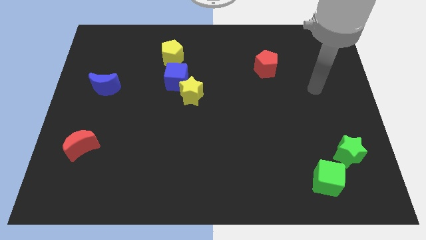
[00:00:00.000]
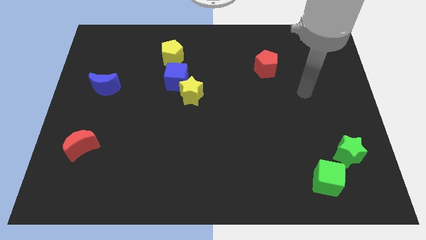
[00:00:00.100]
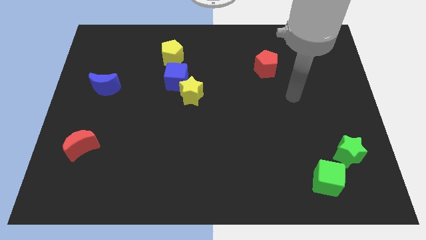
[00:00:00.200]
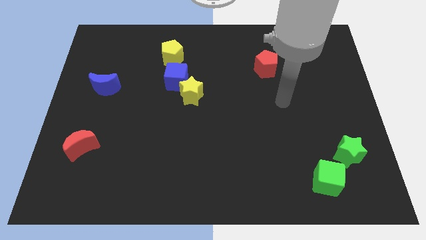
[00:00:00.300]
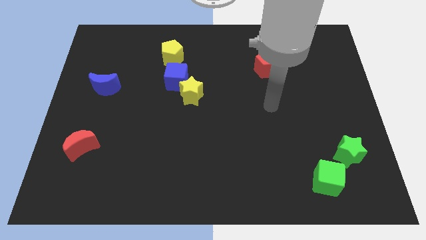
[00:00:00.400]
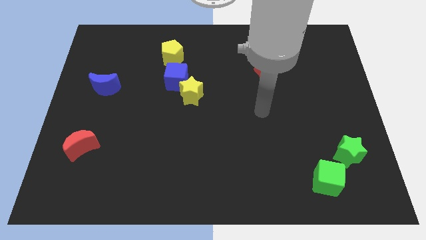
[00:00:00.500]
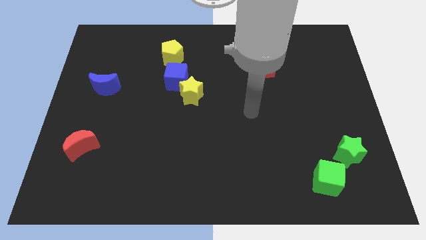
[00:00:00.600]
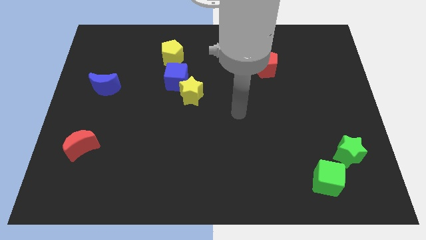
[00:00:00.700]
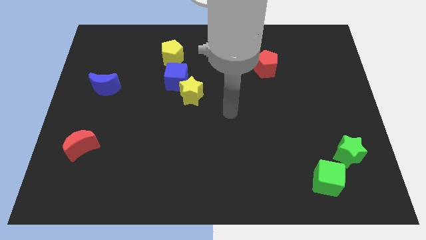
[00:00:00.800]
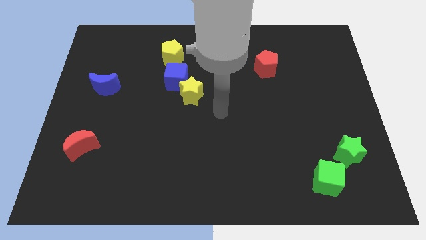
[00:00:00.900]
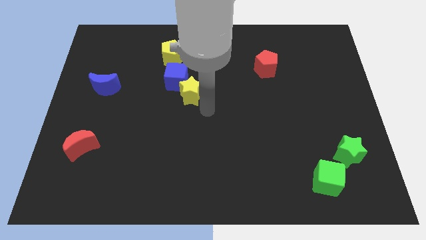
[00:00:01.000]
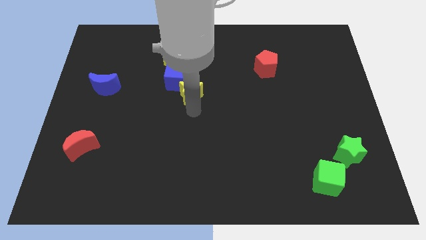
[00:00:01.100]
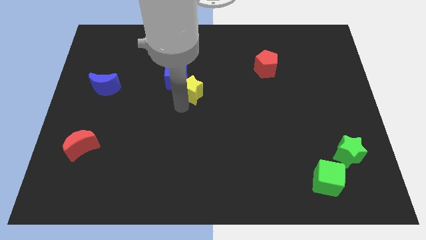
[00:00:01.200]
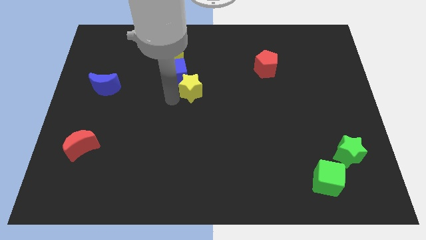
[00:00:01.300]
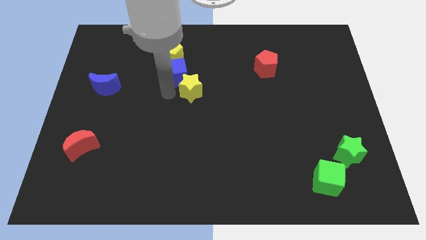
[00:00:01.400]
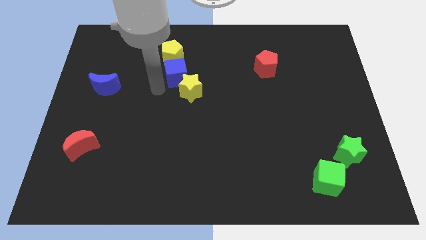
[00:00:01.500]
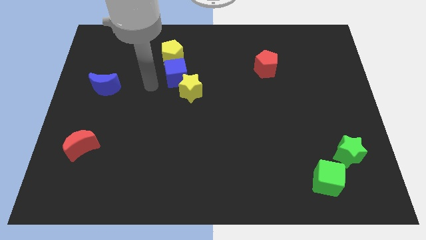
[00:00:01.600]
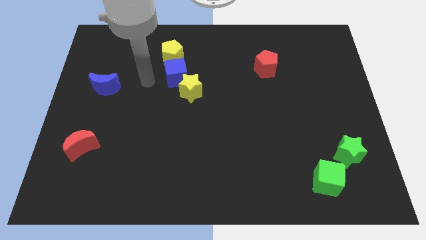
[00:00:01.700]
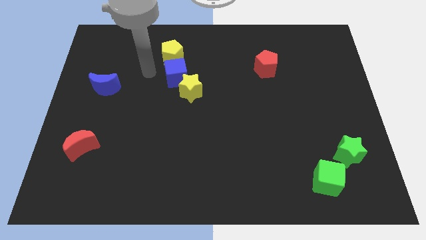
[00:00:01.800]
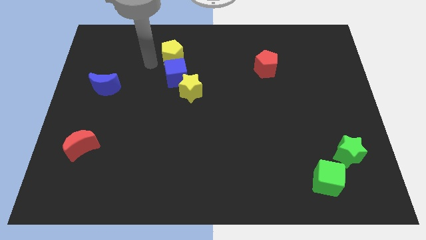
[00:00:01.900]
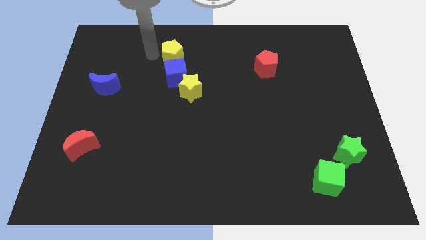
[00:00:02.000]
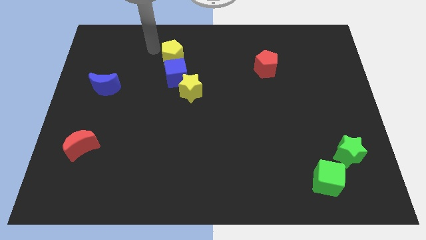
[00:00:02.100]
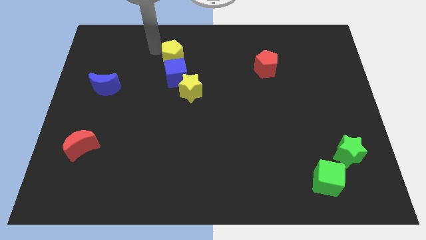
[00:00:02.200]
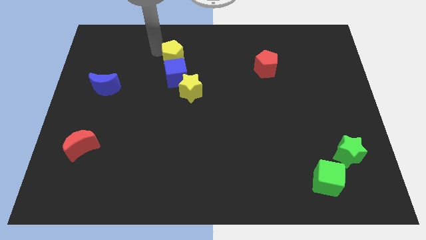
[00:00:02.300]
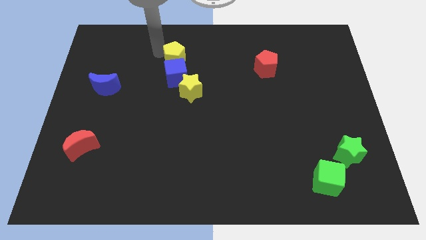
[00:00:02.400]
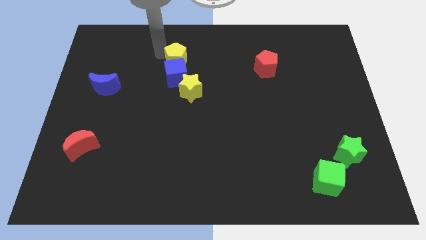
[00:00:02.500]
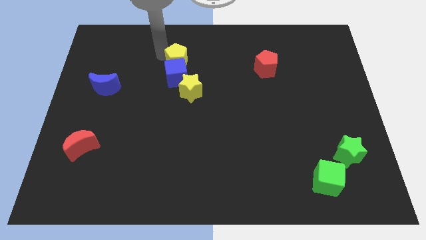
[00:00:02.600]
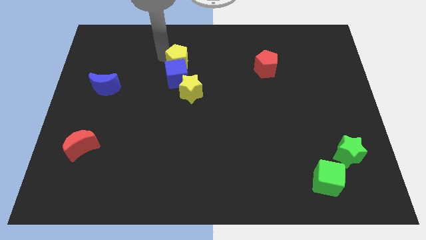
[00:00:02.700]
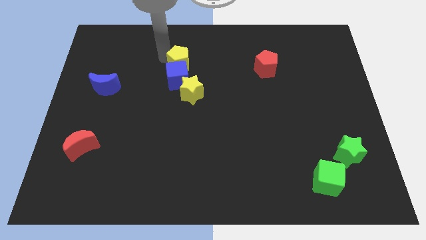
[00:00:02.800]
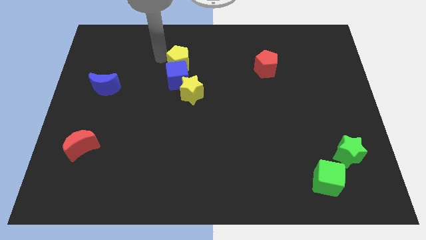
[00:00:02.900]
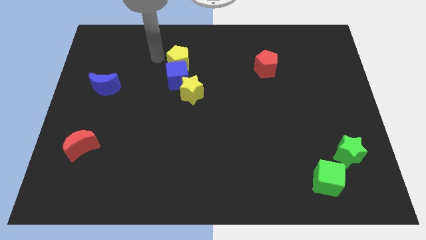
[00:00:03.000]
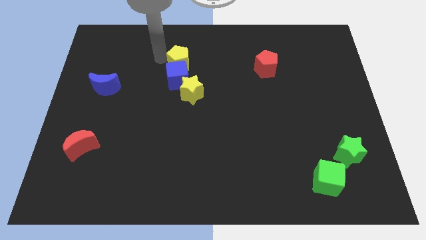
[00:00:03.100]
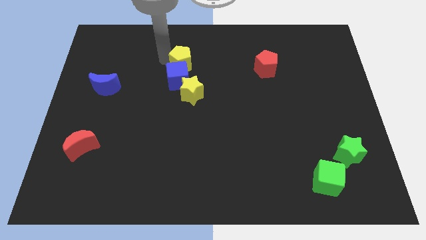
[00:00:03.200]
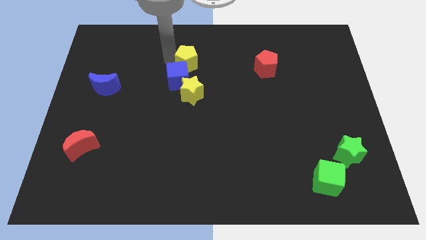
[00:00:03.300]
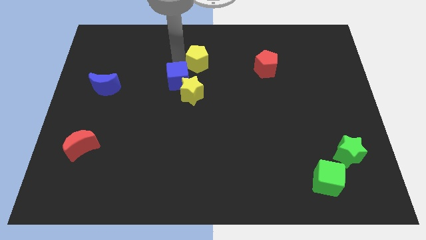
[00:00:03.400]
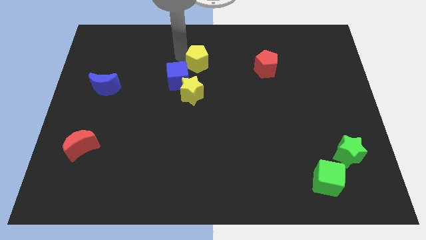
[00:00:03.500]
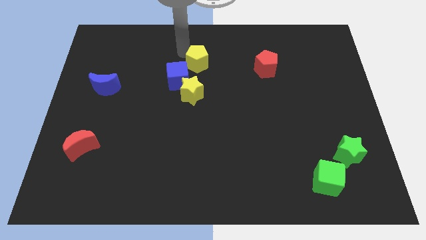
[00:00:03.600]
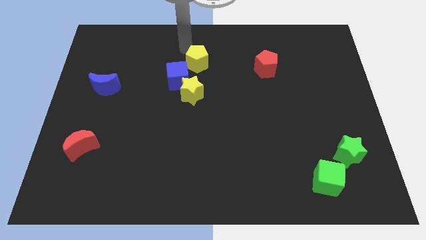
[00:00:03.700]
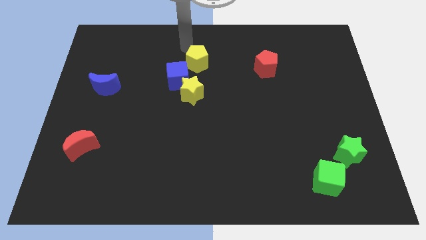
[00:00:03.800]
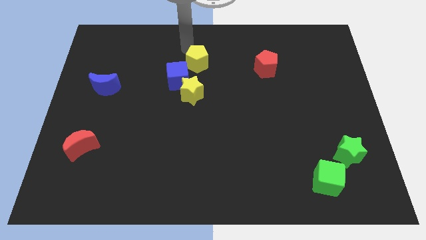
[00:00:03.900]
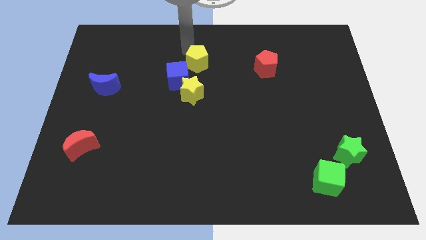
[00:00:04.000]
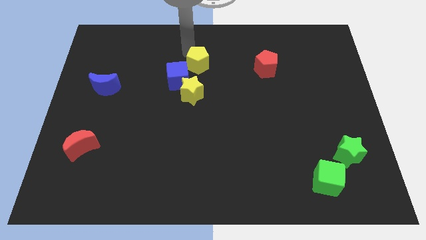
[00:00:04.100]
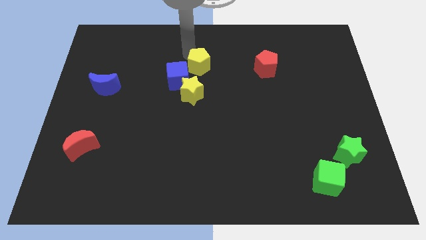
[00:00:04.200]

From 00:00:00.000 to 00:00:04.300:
slightly move the yellow pentagon downwards and right

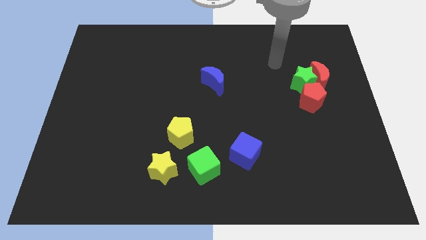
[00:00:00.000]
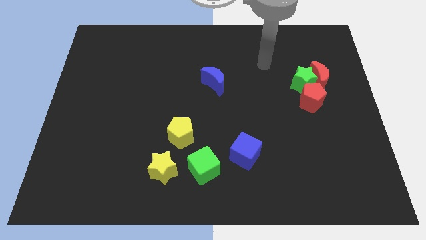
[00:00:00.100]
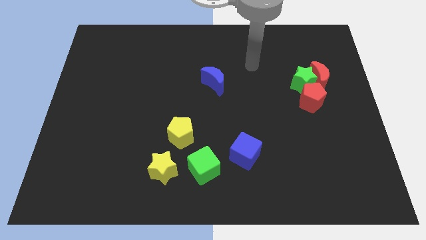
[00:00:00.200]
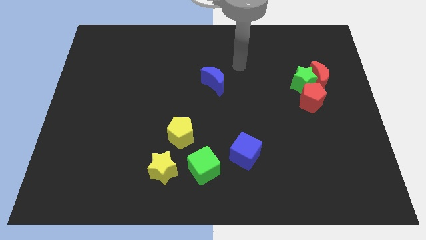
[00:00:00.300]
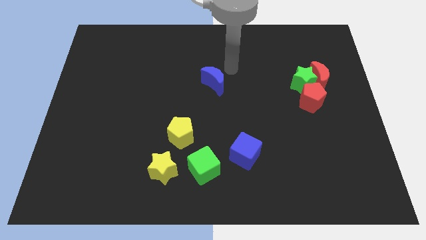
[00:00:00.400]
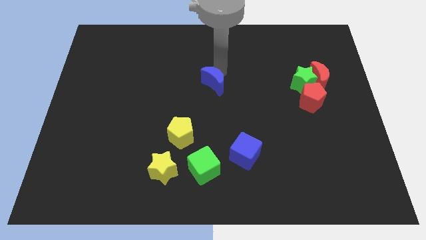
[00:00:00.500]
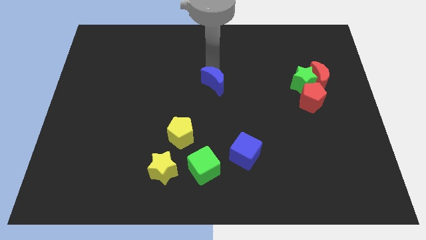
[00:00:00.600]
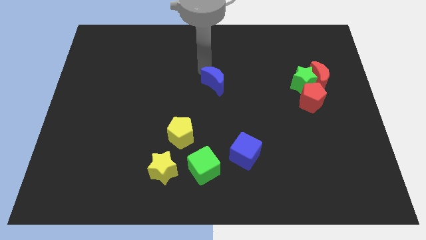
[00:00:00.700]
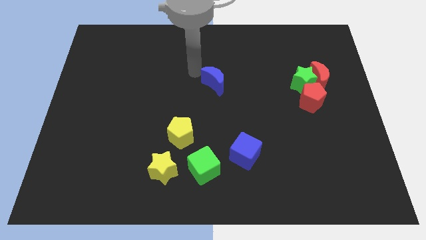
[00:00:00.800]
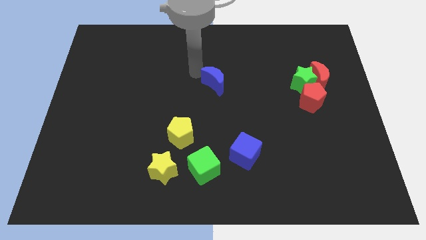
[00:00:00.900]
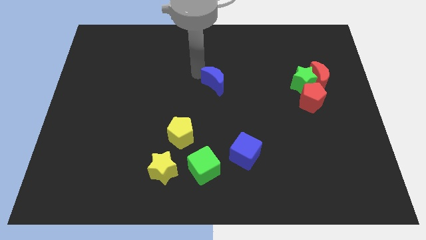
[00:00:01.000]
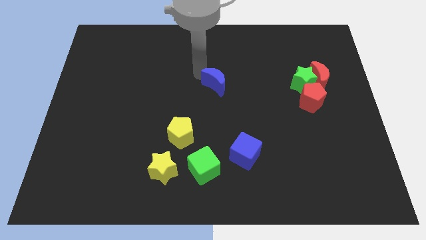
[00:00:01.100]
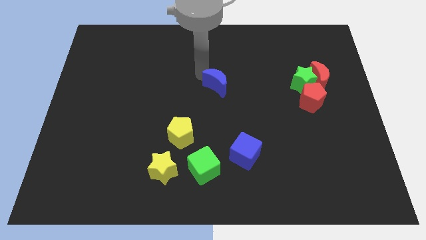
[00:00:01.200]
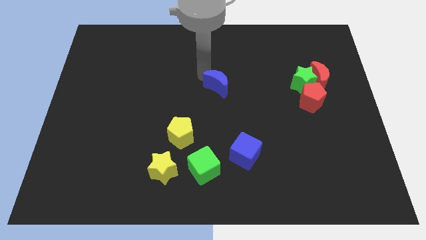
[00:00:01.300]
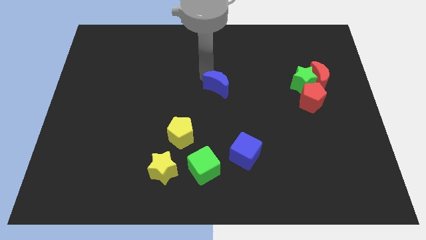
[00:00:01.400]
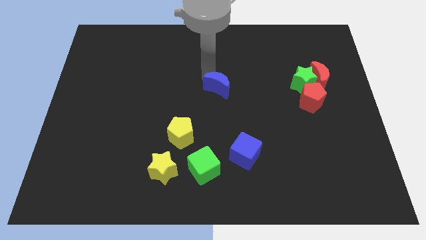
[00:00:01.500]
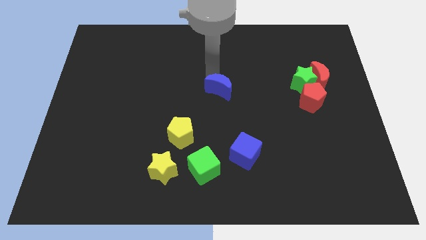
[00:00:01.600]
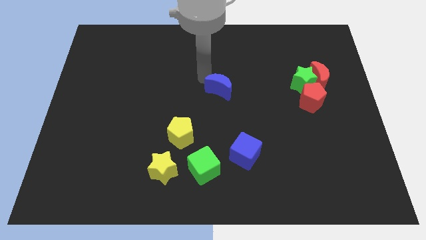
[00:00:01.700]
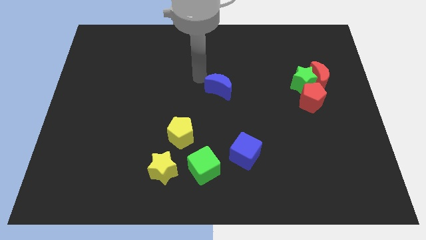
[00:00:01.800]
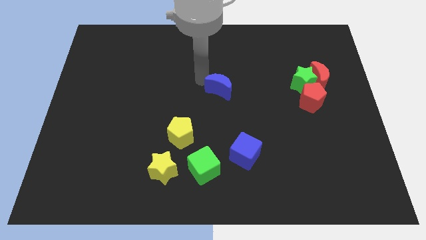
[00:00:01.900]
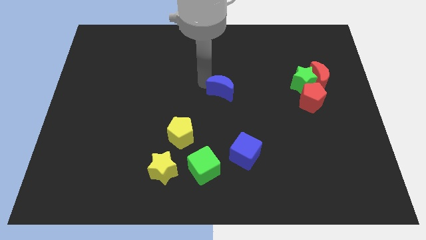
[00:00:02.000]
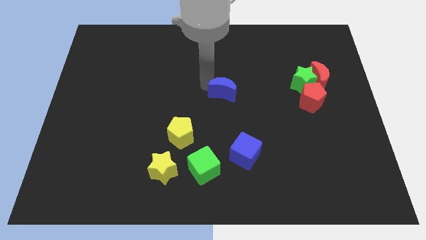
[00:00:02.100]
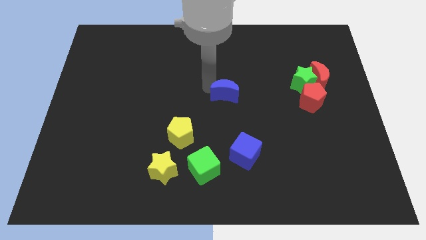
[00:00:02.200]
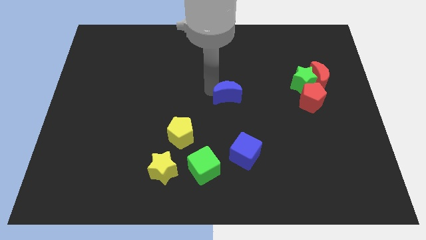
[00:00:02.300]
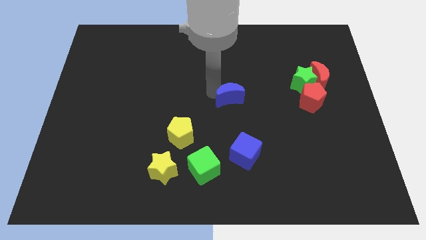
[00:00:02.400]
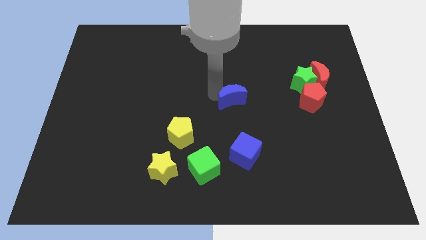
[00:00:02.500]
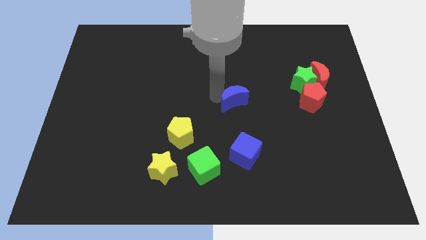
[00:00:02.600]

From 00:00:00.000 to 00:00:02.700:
push the blue moon slightly diagonally down and right

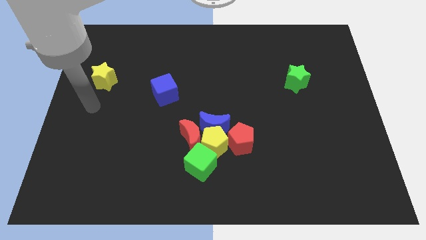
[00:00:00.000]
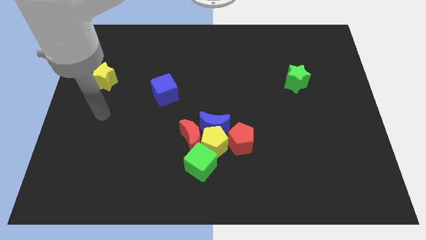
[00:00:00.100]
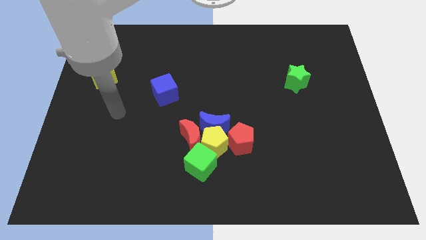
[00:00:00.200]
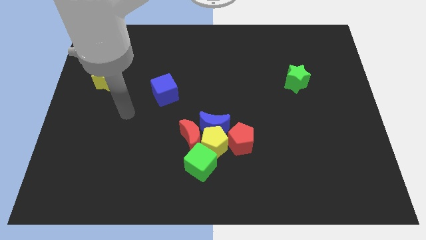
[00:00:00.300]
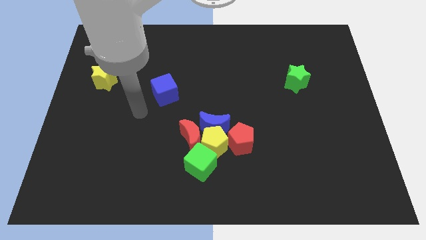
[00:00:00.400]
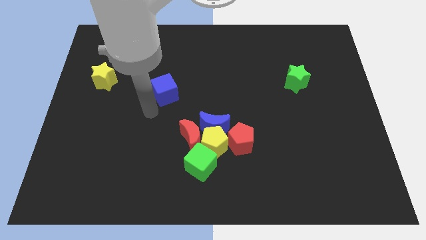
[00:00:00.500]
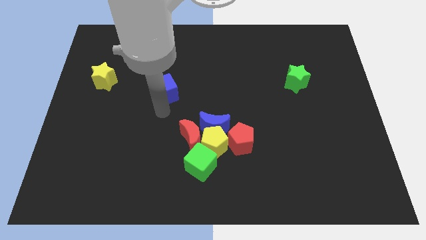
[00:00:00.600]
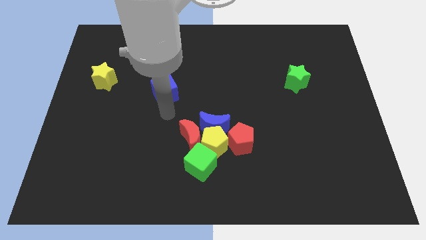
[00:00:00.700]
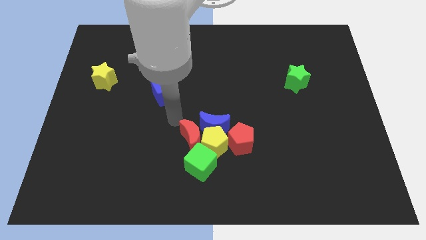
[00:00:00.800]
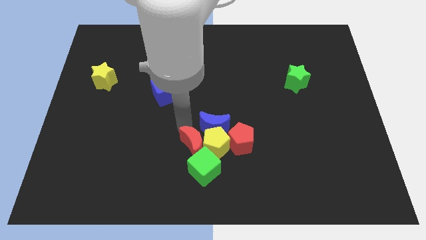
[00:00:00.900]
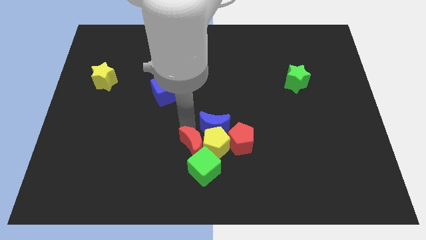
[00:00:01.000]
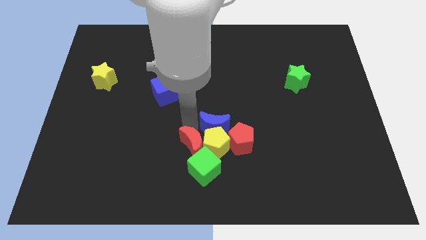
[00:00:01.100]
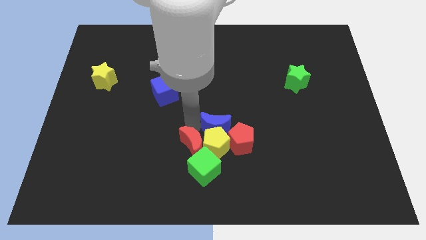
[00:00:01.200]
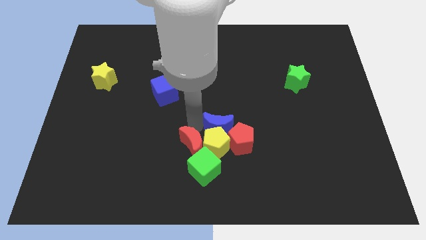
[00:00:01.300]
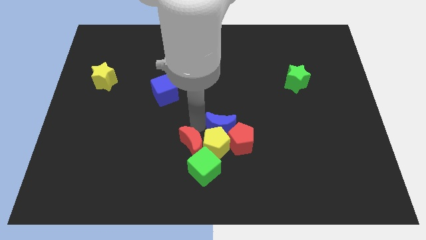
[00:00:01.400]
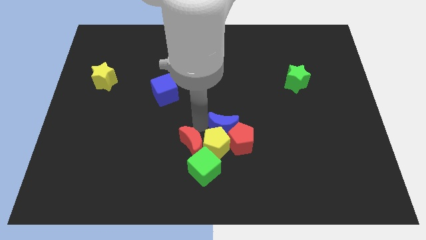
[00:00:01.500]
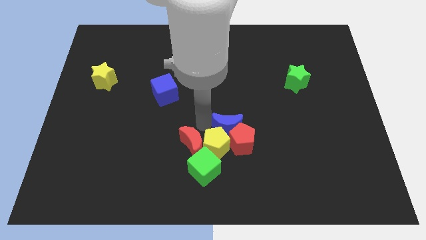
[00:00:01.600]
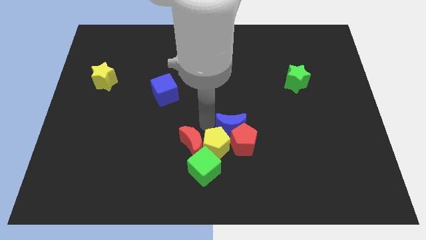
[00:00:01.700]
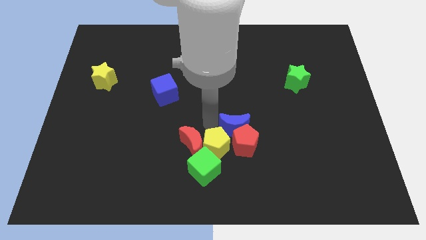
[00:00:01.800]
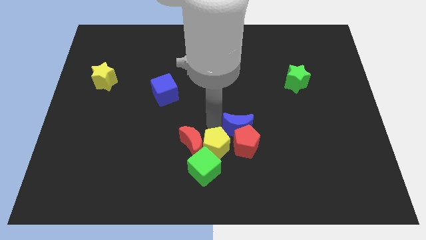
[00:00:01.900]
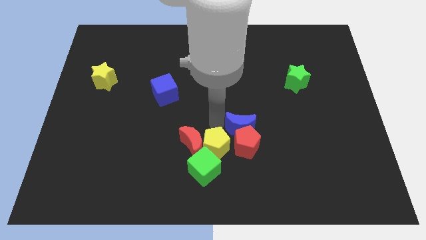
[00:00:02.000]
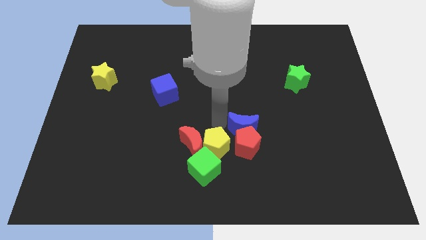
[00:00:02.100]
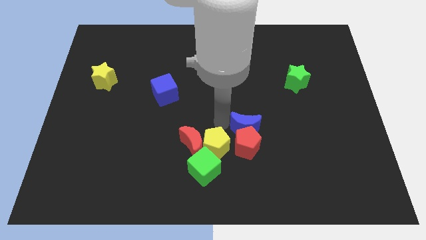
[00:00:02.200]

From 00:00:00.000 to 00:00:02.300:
slide the blue moon right somewhat
